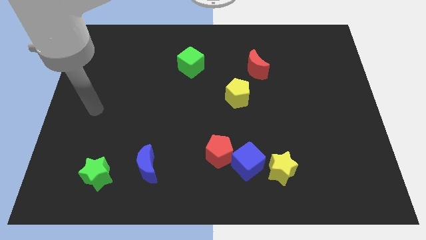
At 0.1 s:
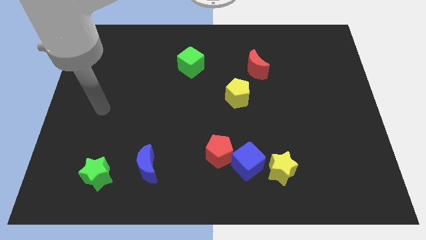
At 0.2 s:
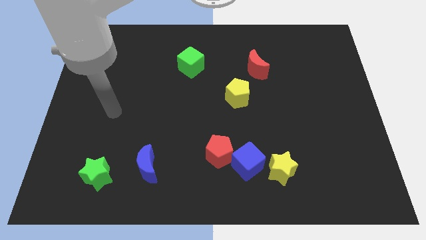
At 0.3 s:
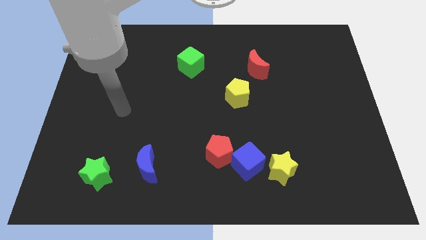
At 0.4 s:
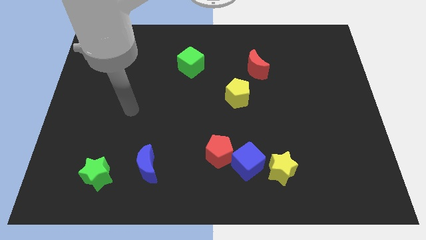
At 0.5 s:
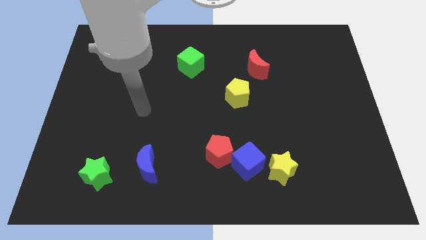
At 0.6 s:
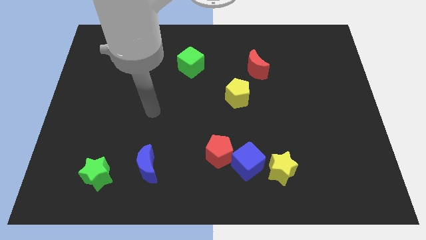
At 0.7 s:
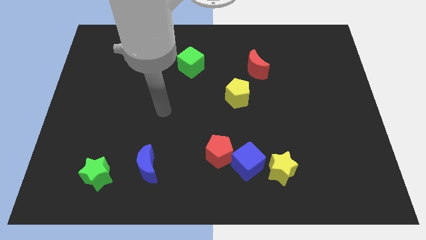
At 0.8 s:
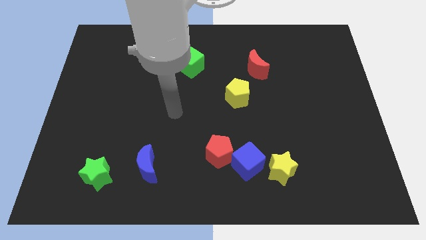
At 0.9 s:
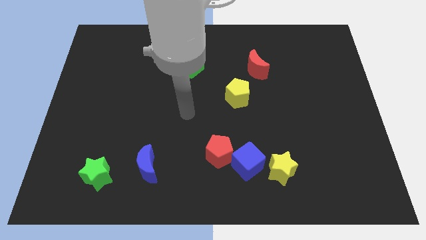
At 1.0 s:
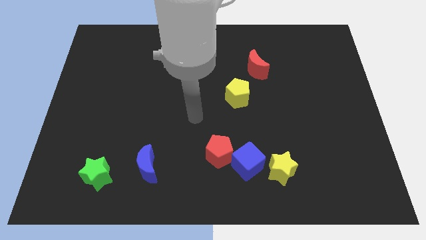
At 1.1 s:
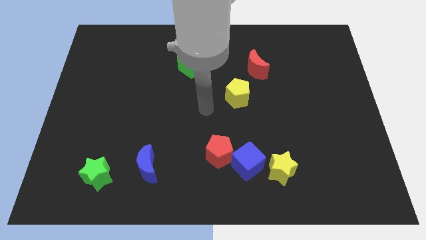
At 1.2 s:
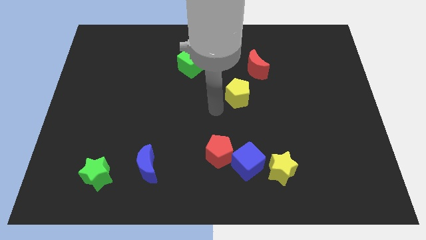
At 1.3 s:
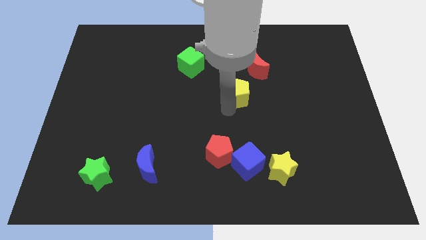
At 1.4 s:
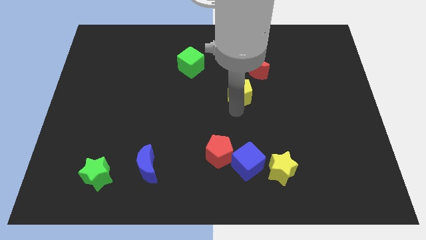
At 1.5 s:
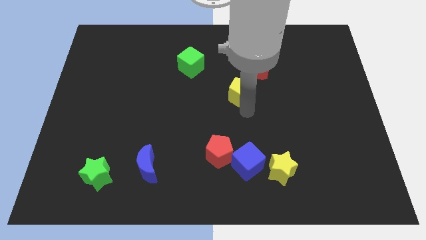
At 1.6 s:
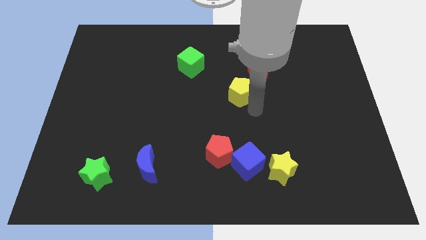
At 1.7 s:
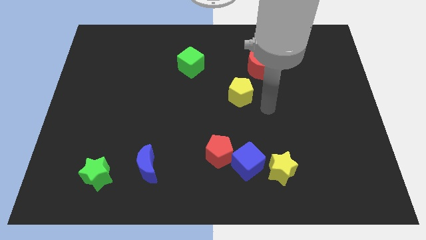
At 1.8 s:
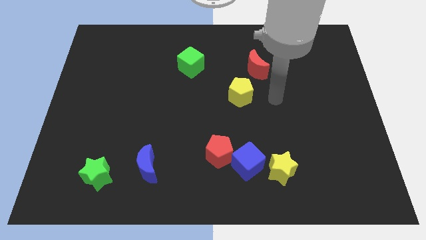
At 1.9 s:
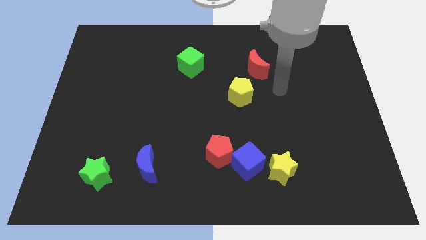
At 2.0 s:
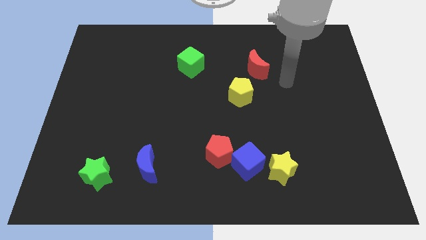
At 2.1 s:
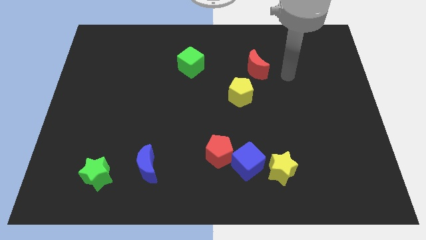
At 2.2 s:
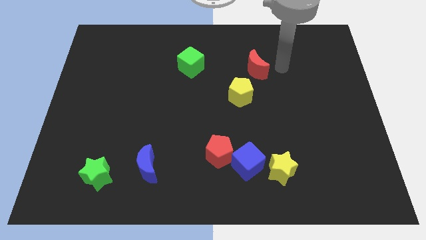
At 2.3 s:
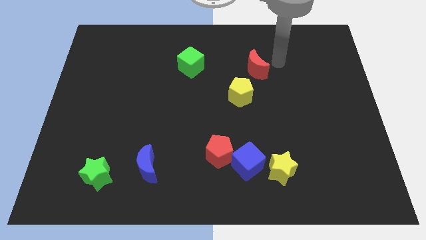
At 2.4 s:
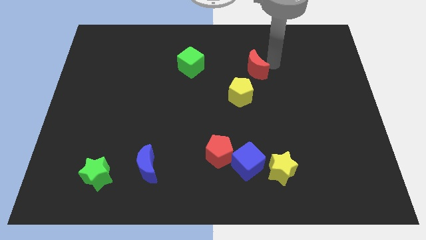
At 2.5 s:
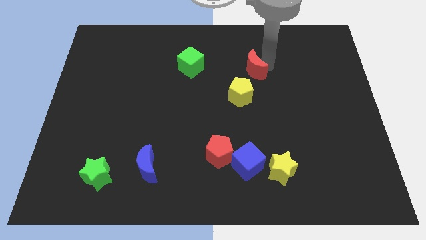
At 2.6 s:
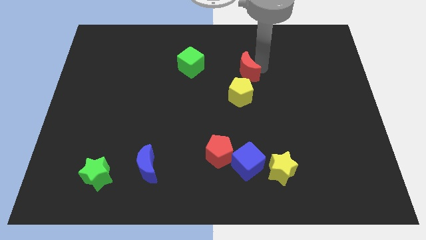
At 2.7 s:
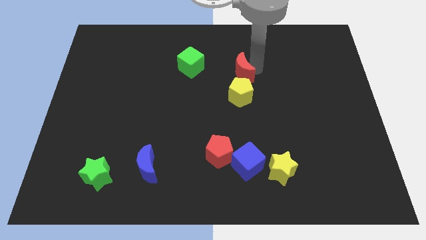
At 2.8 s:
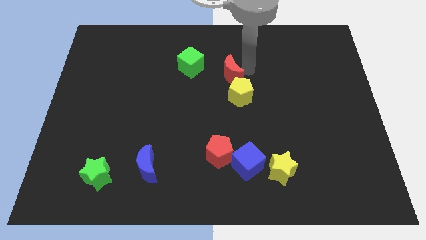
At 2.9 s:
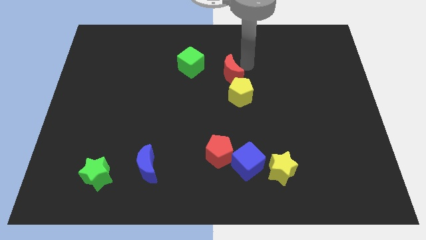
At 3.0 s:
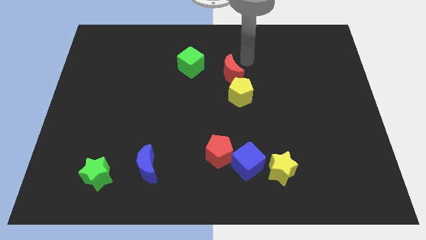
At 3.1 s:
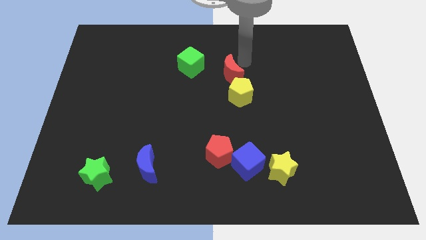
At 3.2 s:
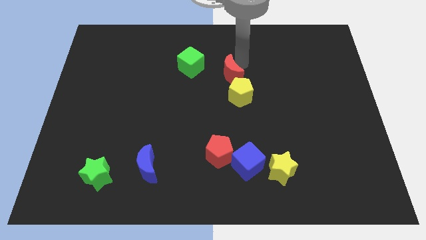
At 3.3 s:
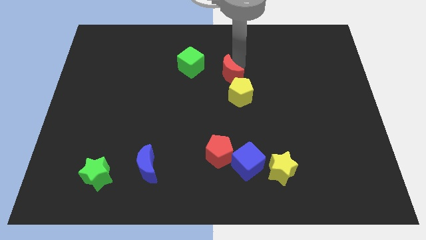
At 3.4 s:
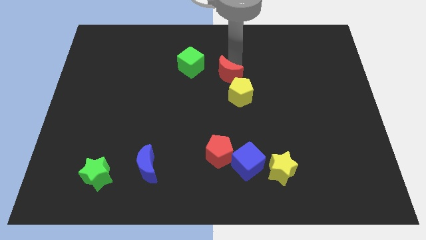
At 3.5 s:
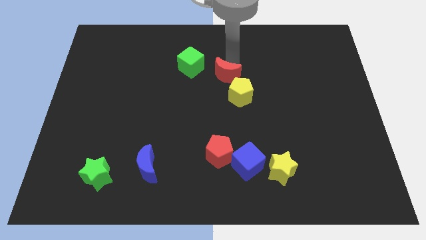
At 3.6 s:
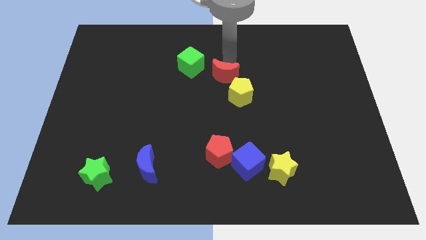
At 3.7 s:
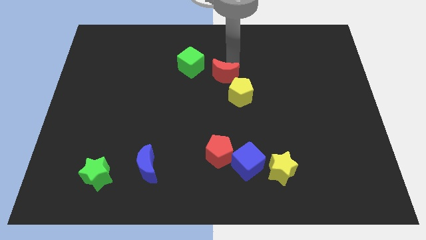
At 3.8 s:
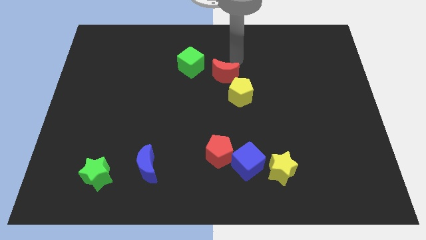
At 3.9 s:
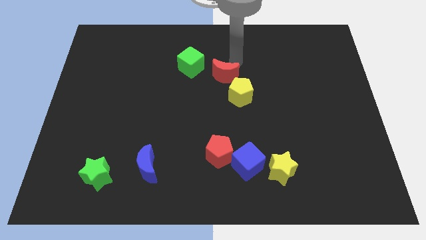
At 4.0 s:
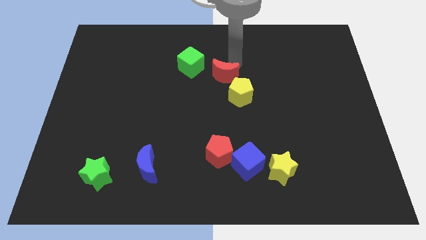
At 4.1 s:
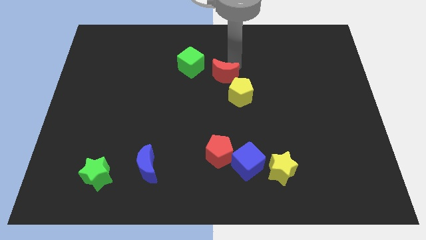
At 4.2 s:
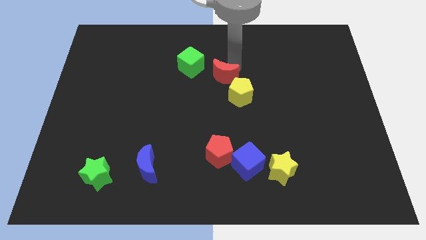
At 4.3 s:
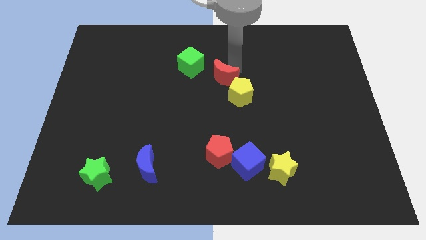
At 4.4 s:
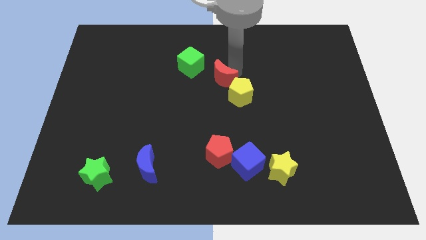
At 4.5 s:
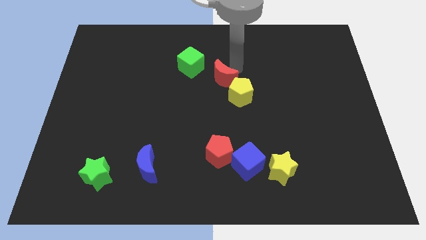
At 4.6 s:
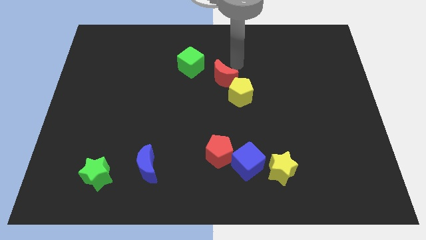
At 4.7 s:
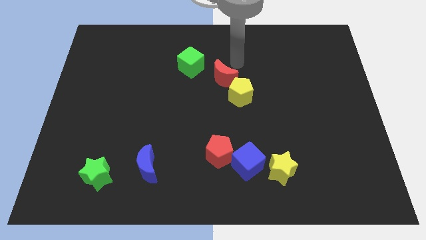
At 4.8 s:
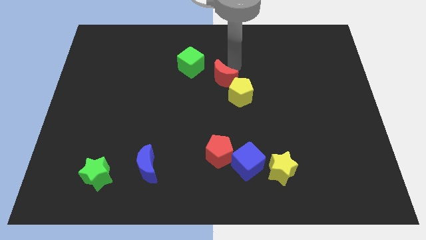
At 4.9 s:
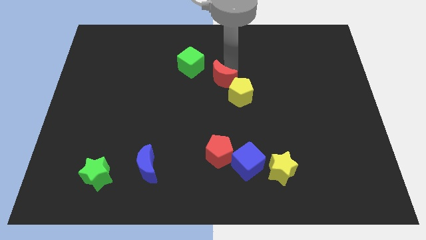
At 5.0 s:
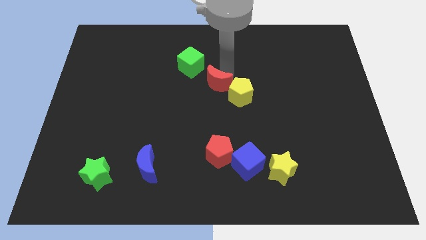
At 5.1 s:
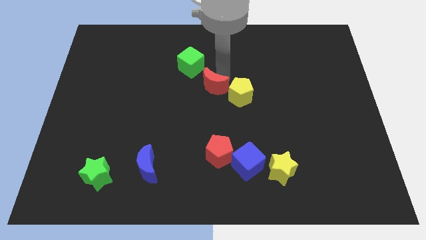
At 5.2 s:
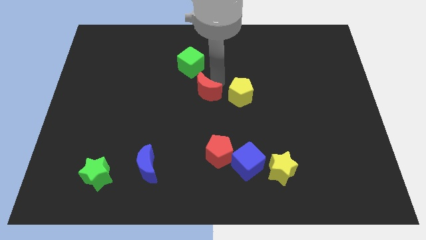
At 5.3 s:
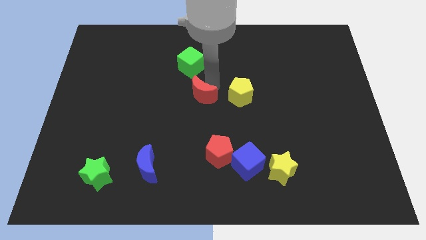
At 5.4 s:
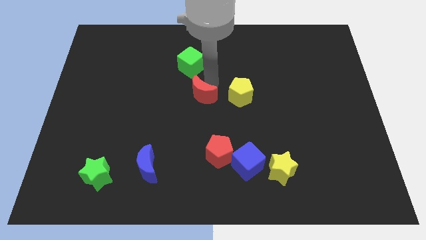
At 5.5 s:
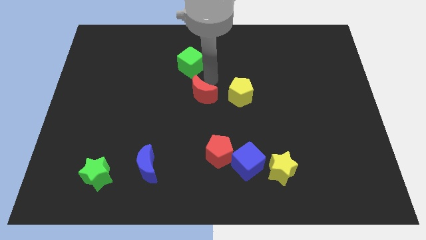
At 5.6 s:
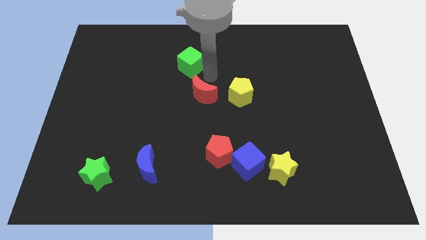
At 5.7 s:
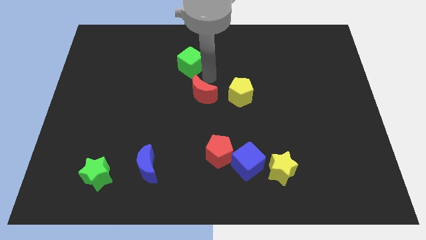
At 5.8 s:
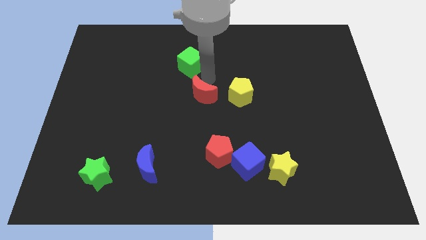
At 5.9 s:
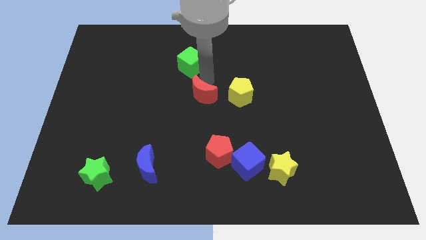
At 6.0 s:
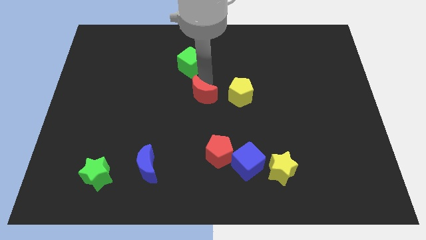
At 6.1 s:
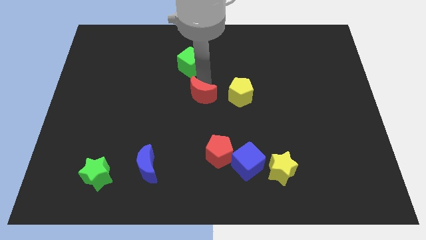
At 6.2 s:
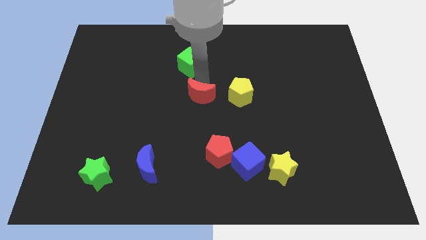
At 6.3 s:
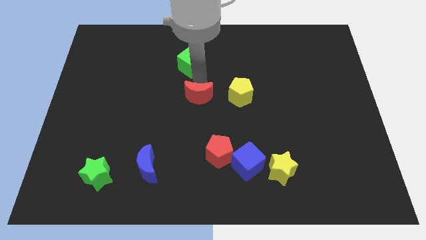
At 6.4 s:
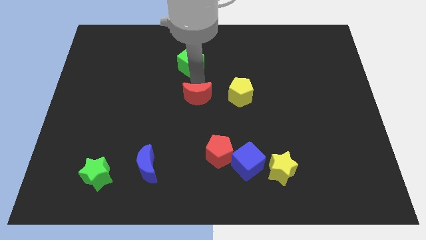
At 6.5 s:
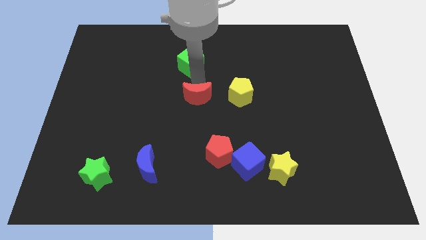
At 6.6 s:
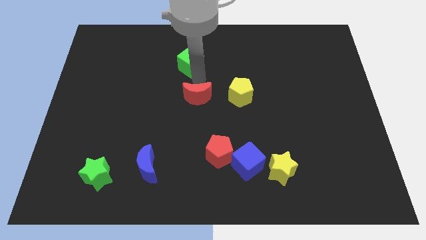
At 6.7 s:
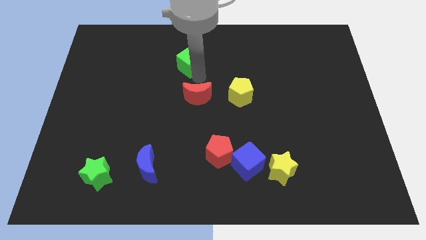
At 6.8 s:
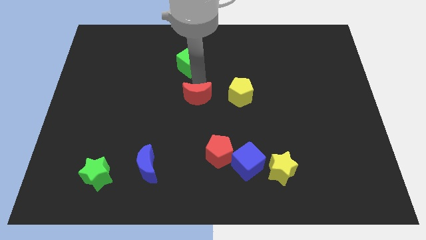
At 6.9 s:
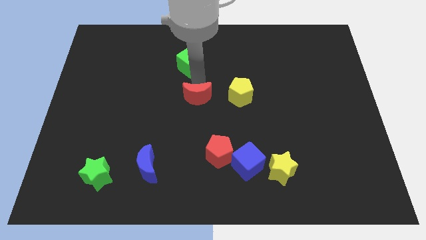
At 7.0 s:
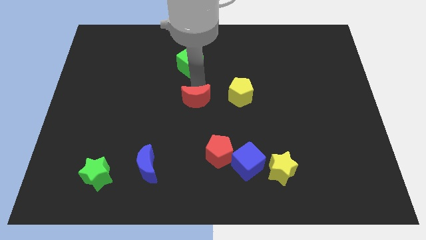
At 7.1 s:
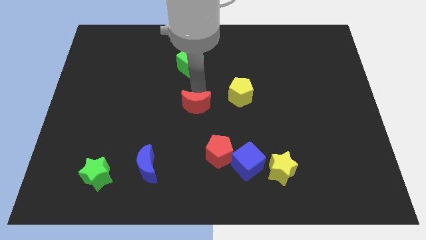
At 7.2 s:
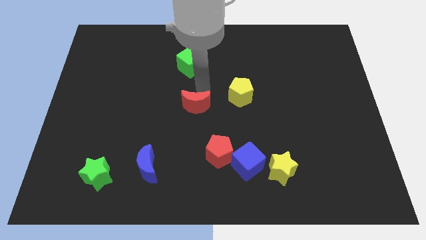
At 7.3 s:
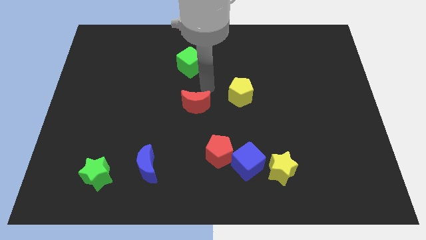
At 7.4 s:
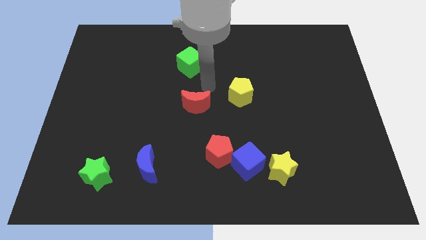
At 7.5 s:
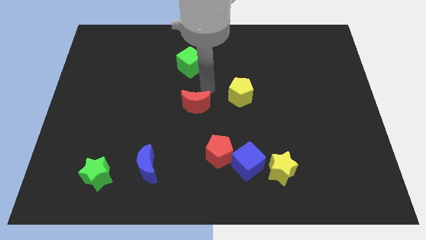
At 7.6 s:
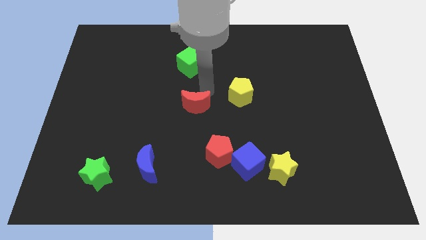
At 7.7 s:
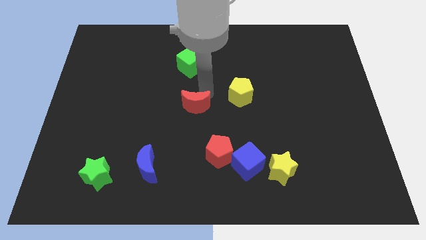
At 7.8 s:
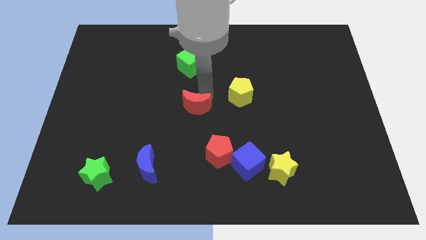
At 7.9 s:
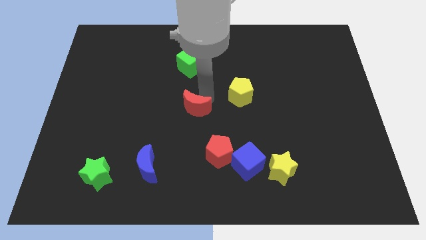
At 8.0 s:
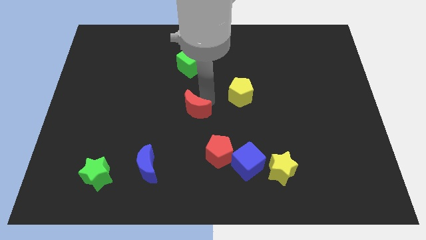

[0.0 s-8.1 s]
push the red moon diagonally down and left
